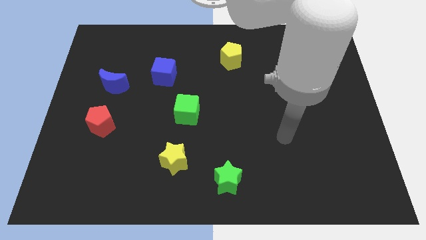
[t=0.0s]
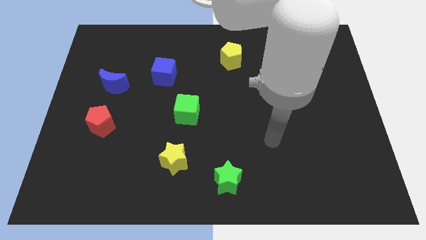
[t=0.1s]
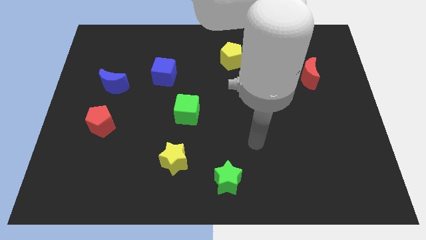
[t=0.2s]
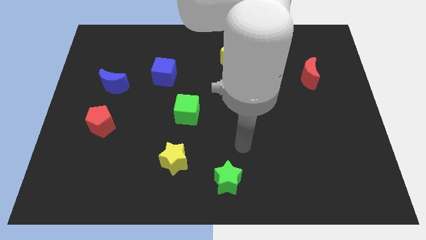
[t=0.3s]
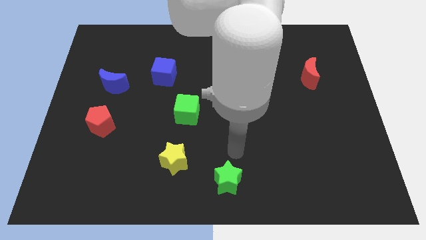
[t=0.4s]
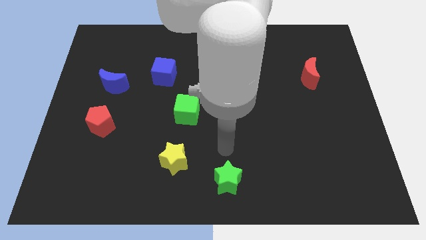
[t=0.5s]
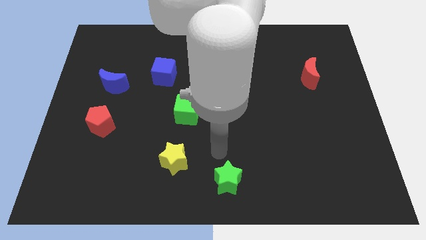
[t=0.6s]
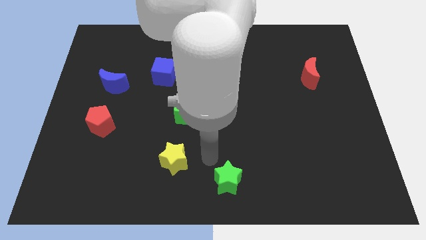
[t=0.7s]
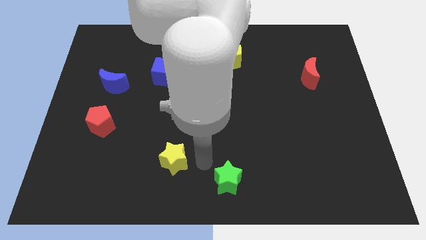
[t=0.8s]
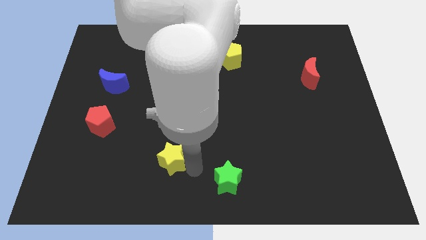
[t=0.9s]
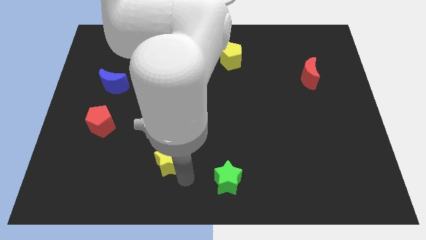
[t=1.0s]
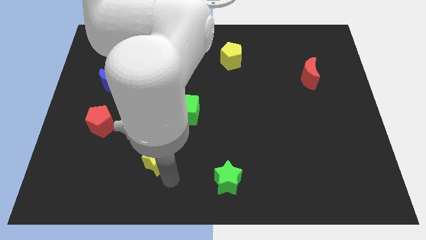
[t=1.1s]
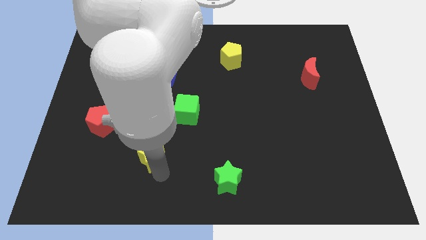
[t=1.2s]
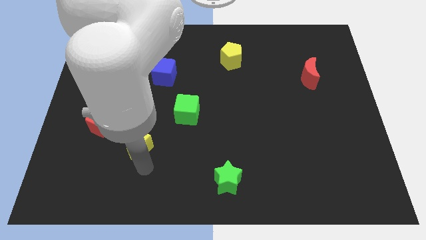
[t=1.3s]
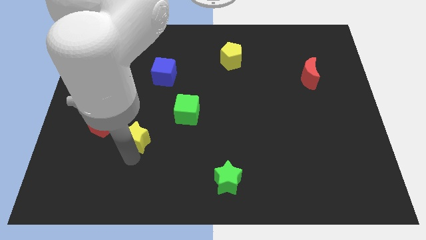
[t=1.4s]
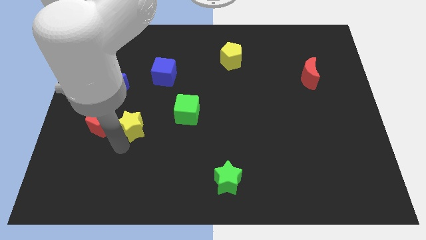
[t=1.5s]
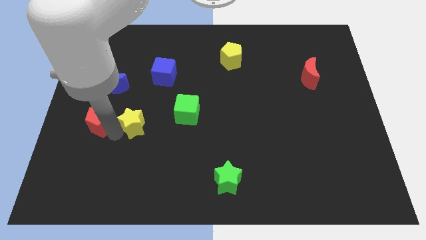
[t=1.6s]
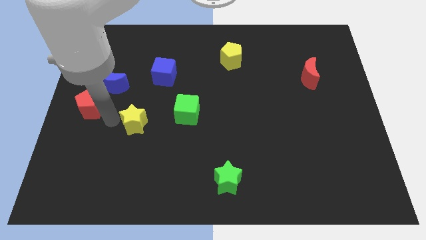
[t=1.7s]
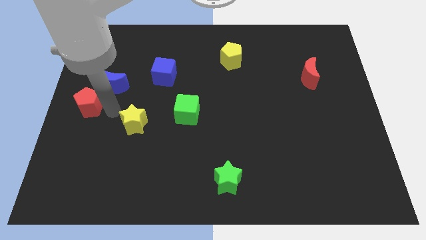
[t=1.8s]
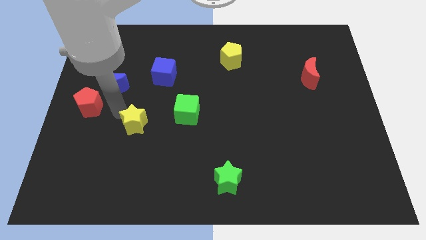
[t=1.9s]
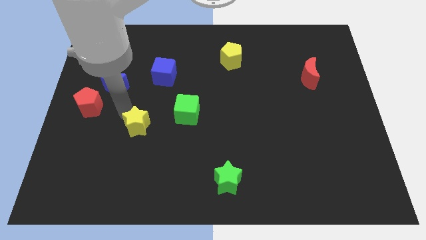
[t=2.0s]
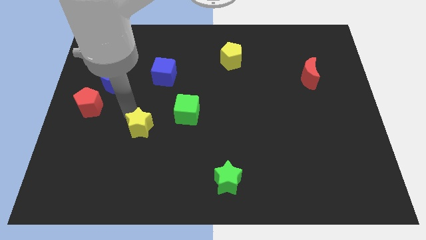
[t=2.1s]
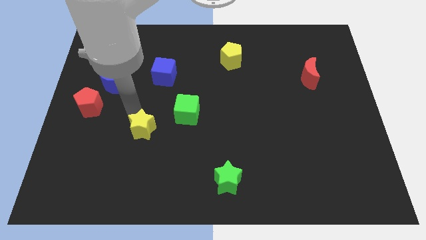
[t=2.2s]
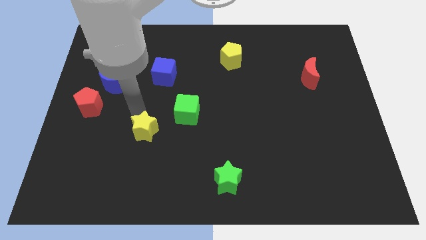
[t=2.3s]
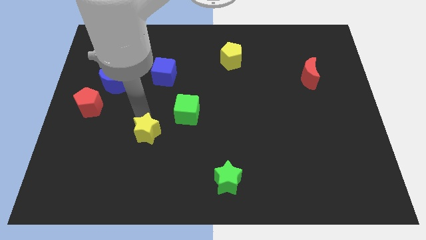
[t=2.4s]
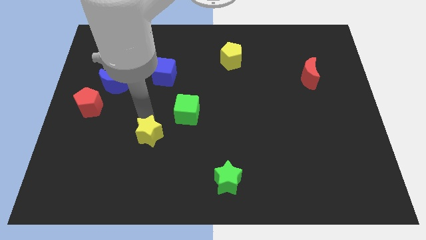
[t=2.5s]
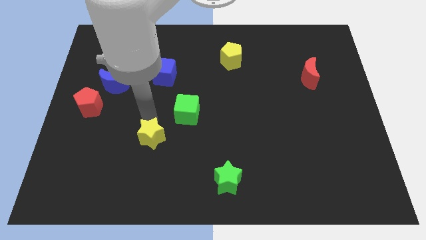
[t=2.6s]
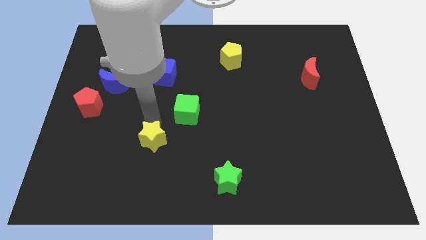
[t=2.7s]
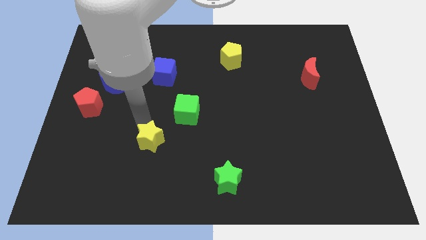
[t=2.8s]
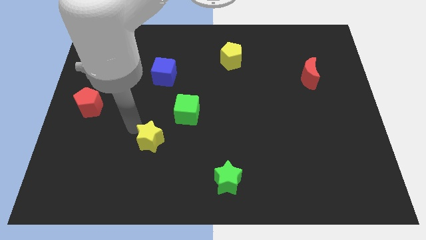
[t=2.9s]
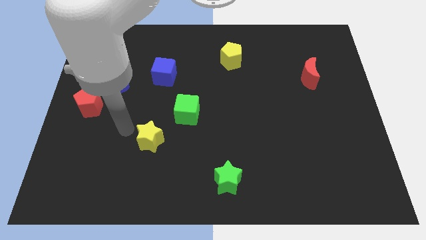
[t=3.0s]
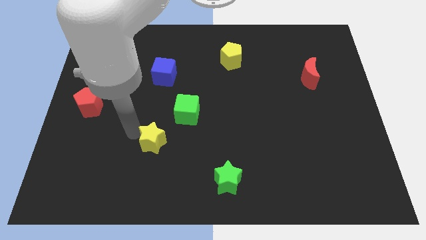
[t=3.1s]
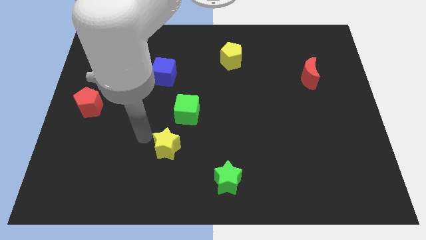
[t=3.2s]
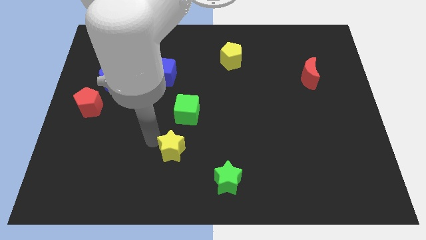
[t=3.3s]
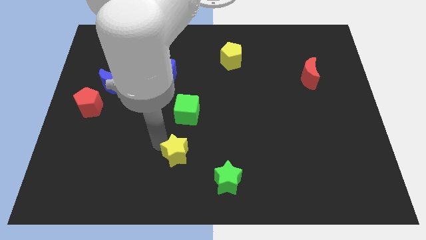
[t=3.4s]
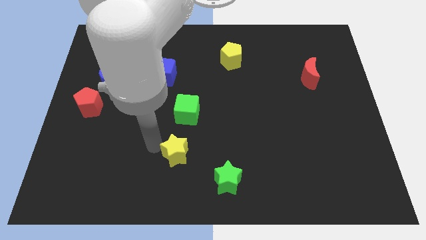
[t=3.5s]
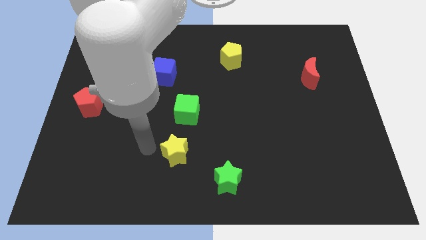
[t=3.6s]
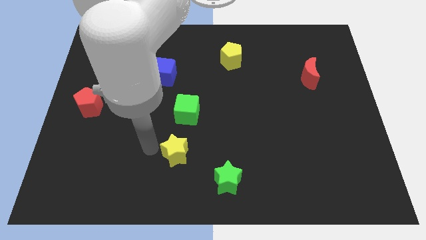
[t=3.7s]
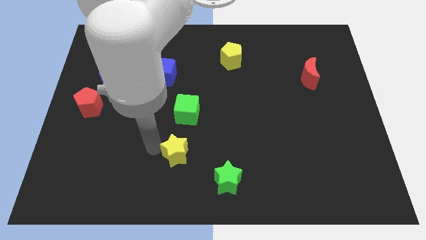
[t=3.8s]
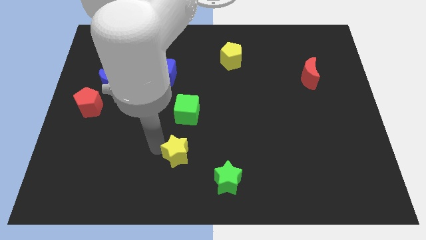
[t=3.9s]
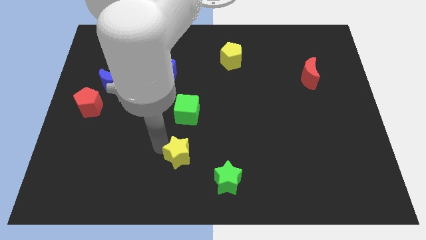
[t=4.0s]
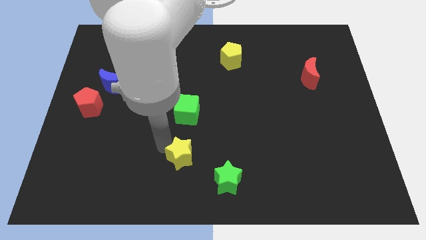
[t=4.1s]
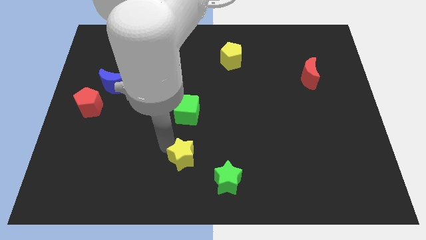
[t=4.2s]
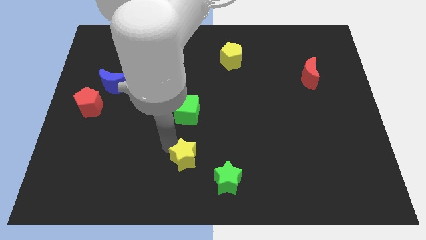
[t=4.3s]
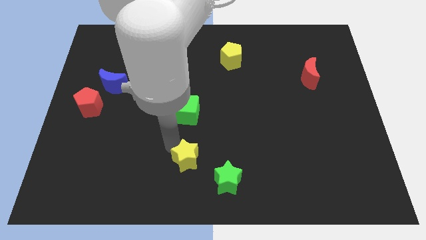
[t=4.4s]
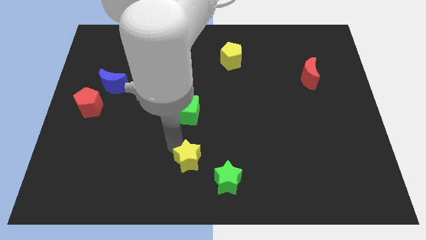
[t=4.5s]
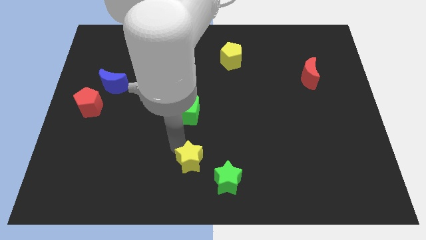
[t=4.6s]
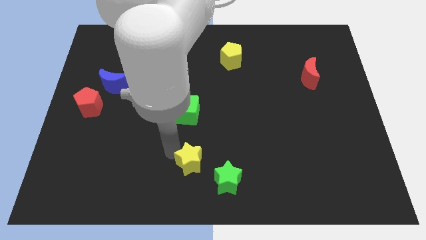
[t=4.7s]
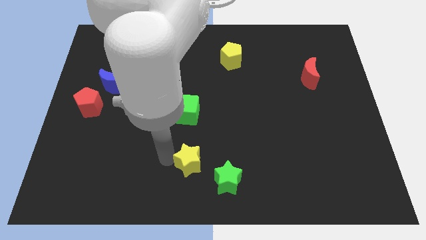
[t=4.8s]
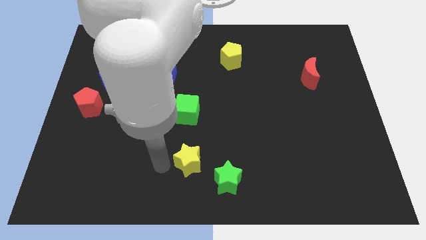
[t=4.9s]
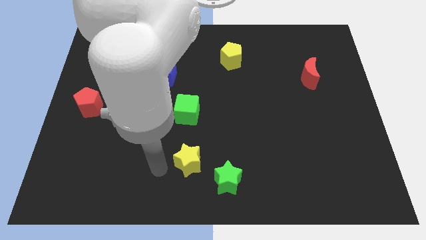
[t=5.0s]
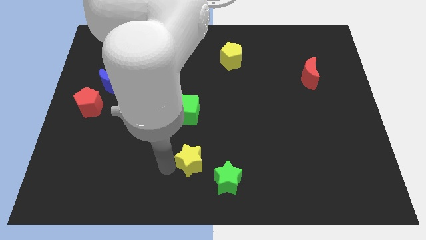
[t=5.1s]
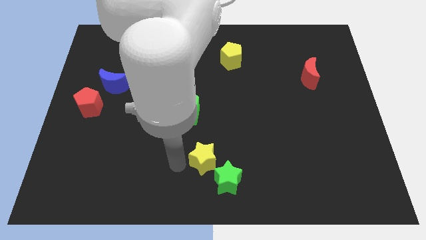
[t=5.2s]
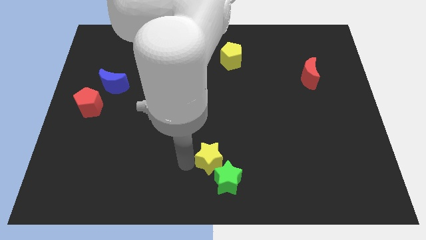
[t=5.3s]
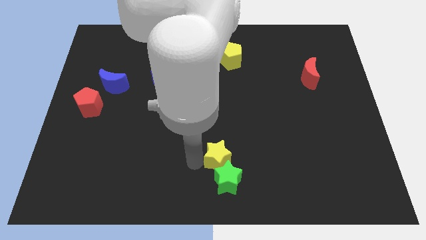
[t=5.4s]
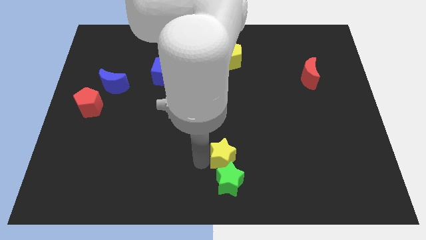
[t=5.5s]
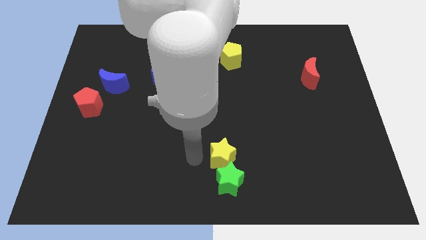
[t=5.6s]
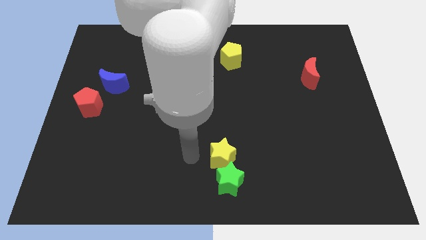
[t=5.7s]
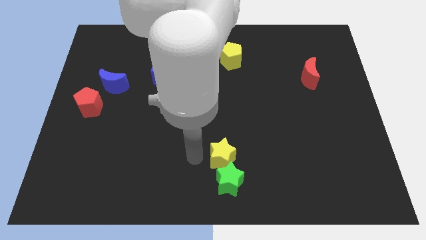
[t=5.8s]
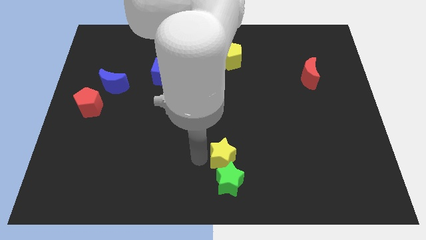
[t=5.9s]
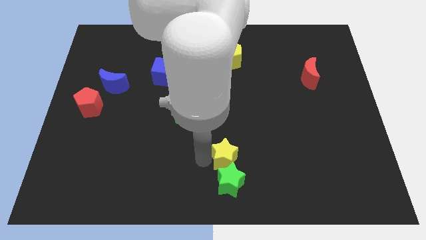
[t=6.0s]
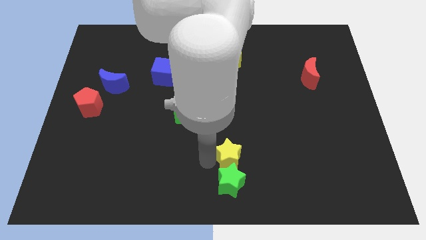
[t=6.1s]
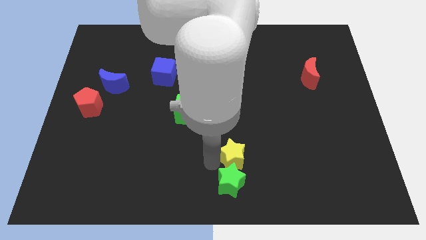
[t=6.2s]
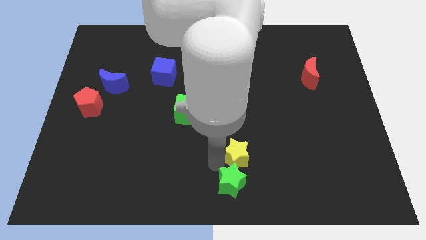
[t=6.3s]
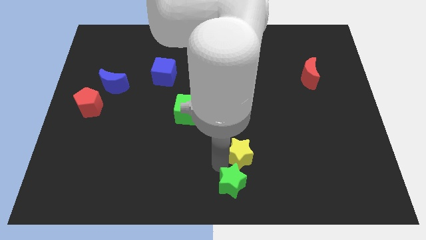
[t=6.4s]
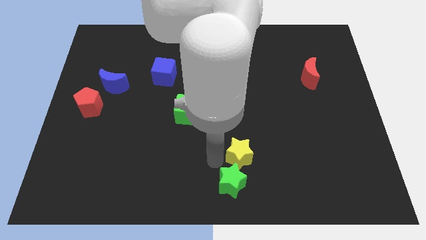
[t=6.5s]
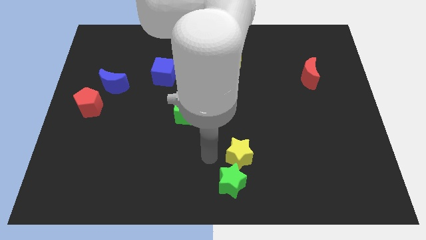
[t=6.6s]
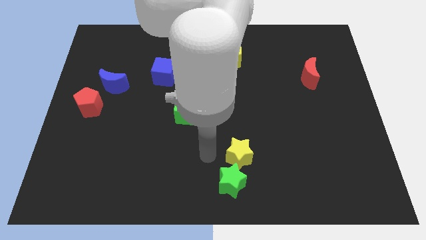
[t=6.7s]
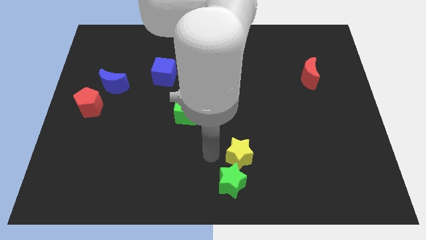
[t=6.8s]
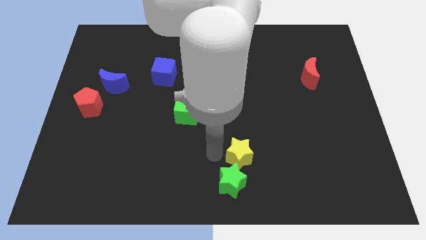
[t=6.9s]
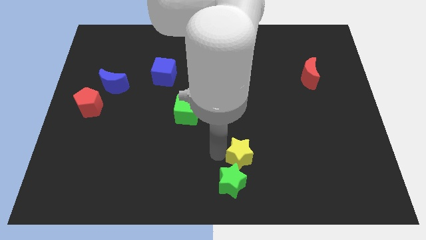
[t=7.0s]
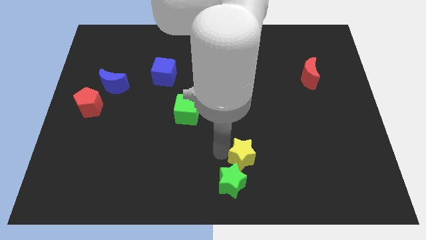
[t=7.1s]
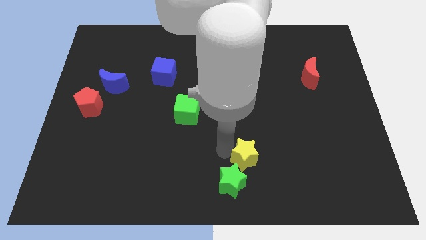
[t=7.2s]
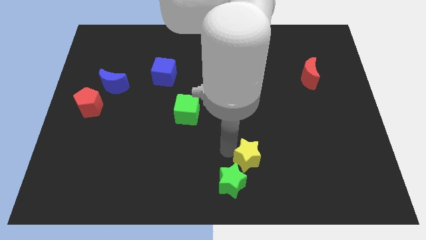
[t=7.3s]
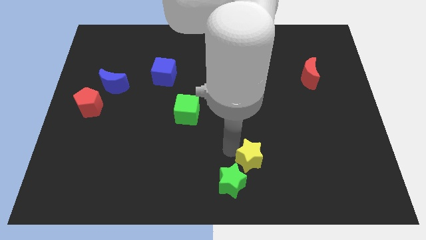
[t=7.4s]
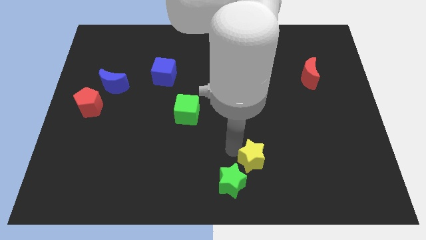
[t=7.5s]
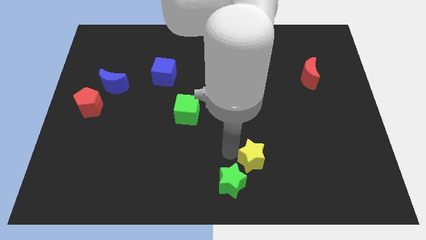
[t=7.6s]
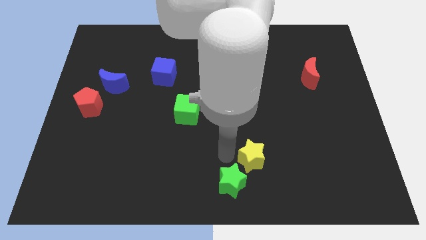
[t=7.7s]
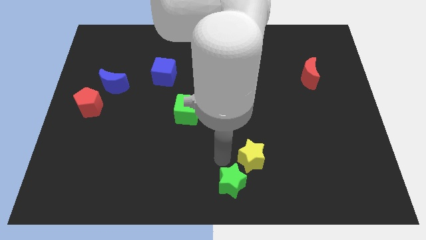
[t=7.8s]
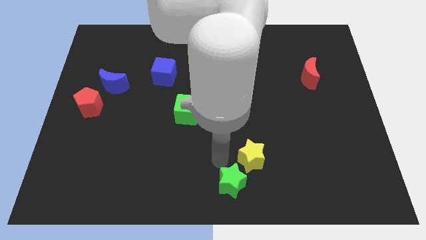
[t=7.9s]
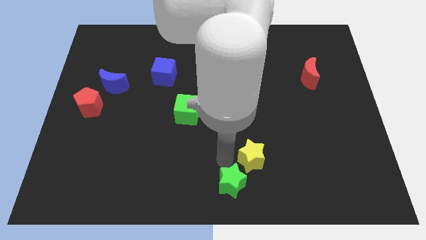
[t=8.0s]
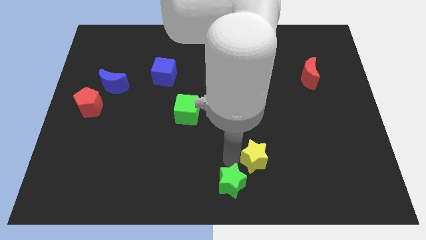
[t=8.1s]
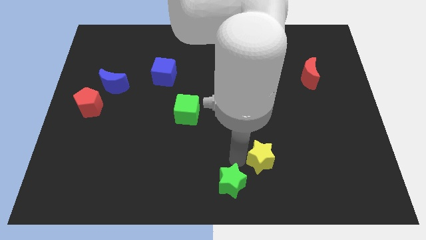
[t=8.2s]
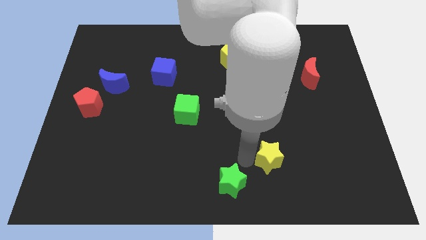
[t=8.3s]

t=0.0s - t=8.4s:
slide the yellow star to the right
